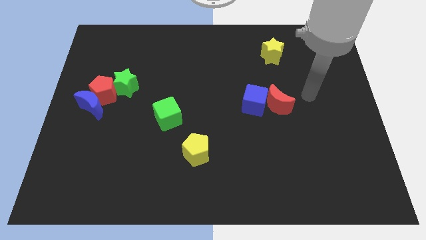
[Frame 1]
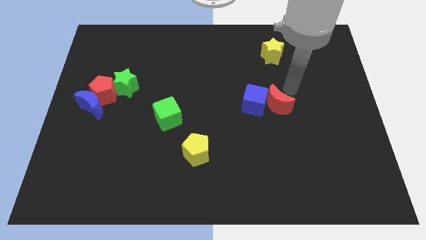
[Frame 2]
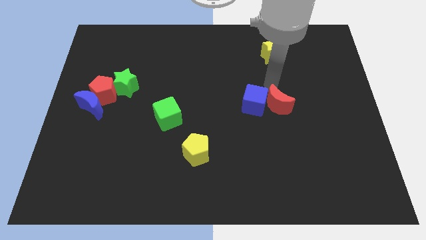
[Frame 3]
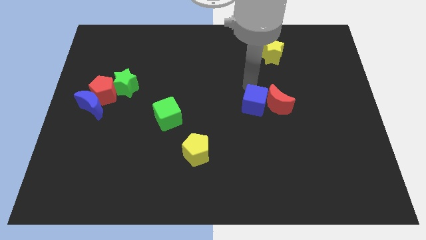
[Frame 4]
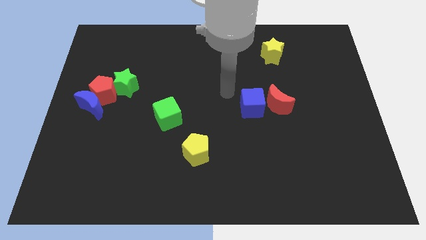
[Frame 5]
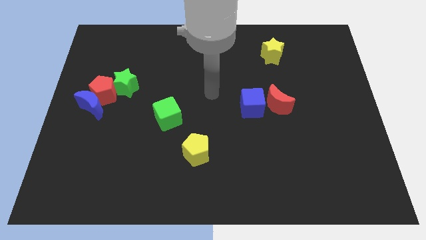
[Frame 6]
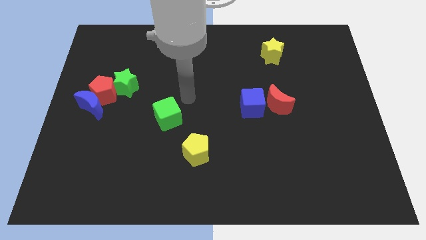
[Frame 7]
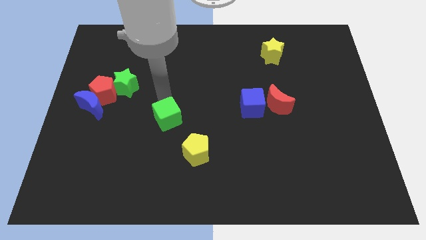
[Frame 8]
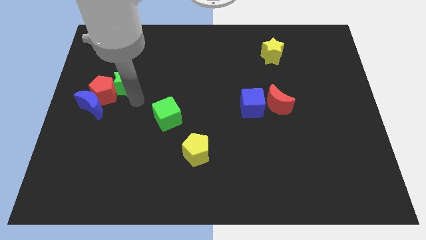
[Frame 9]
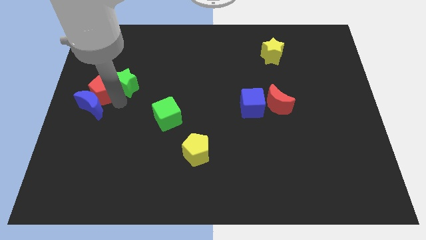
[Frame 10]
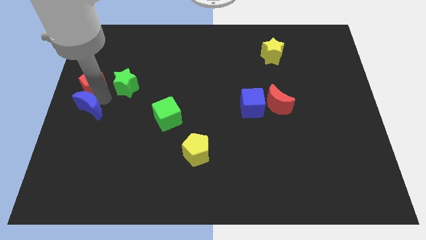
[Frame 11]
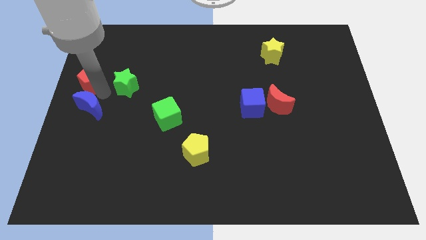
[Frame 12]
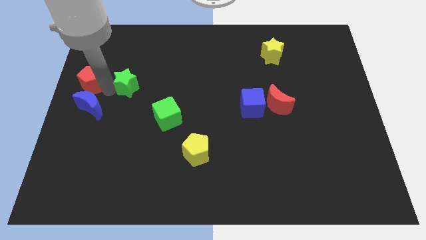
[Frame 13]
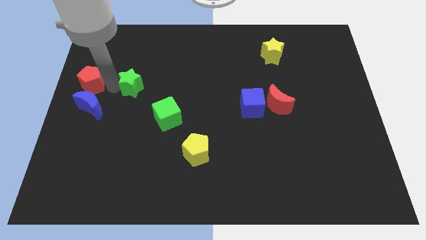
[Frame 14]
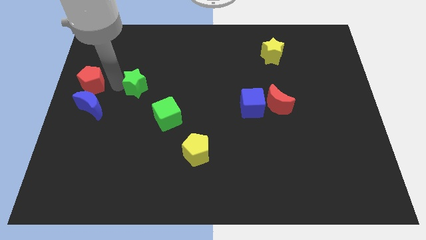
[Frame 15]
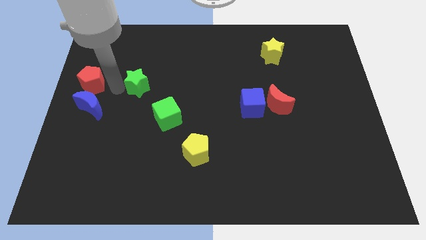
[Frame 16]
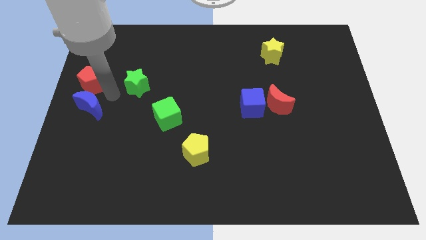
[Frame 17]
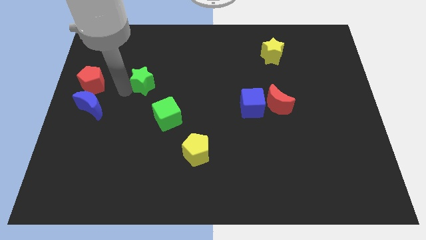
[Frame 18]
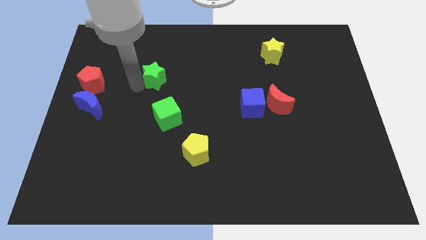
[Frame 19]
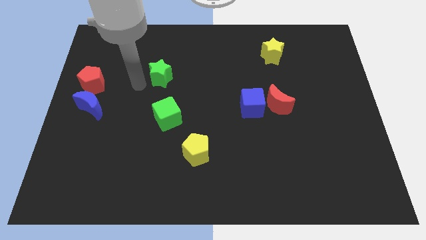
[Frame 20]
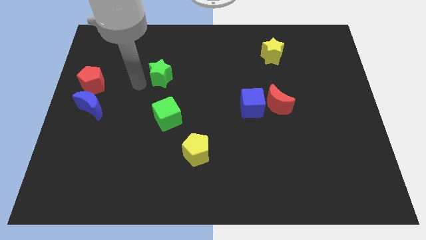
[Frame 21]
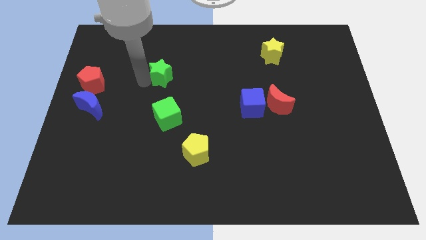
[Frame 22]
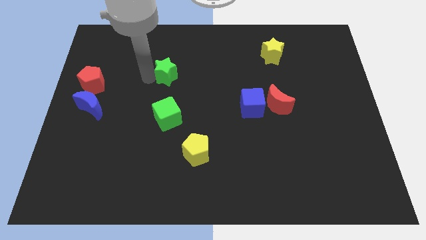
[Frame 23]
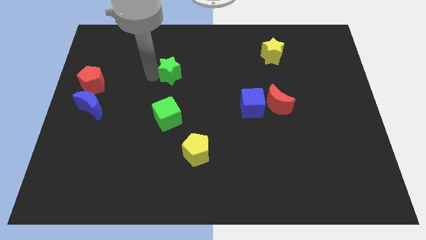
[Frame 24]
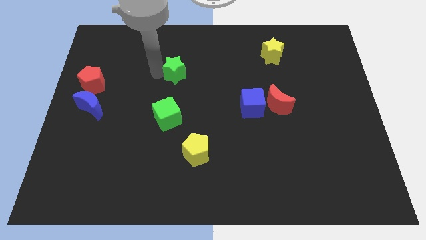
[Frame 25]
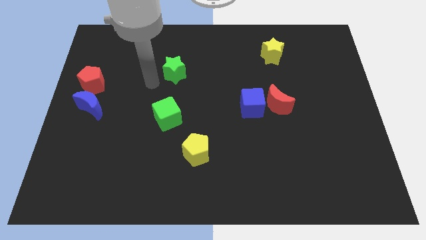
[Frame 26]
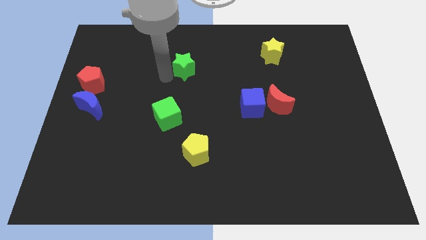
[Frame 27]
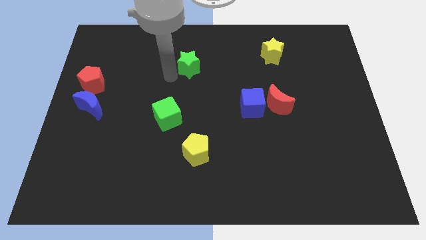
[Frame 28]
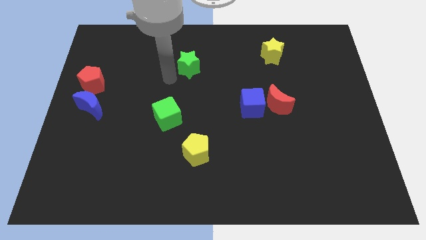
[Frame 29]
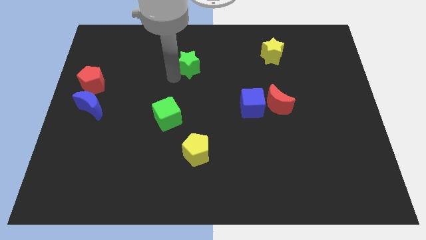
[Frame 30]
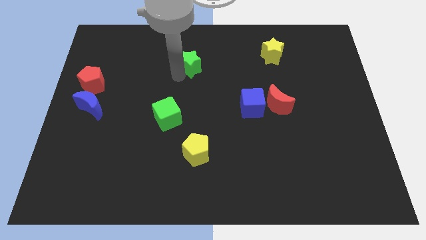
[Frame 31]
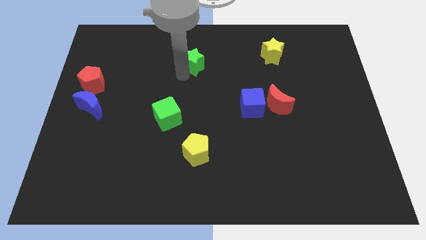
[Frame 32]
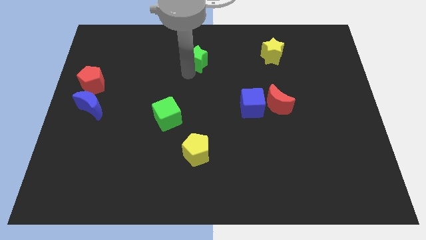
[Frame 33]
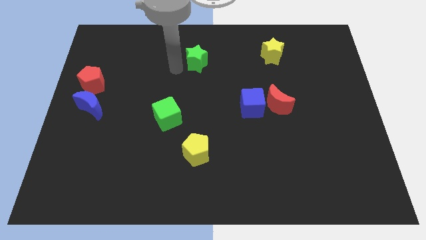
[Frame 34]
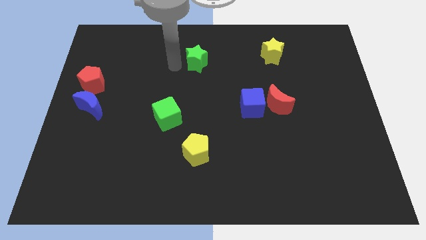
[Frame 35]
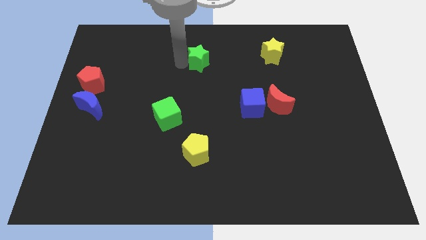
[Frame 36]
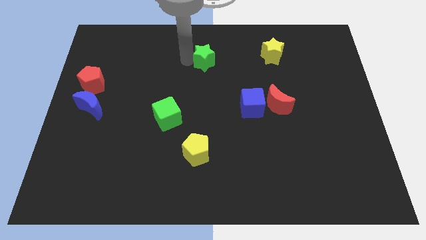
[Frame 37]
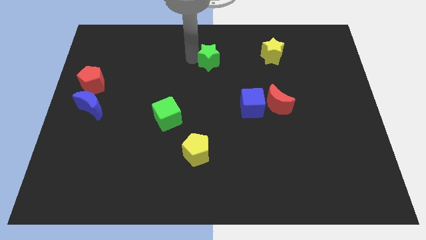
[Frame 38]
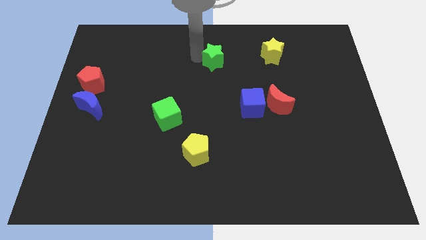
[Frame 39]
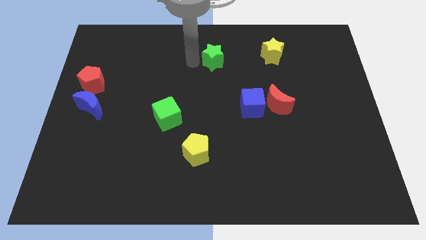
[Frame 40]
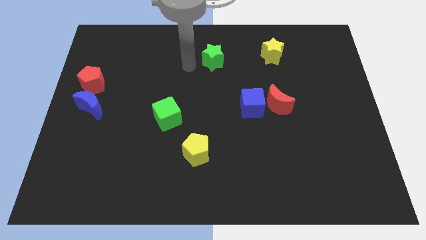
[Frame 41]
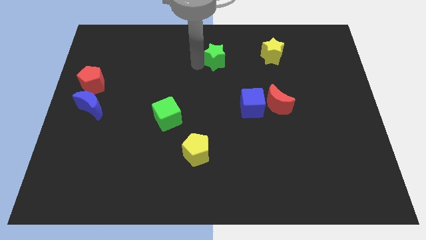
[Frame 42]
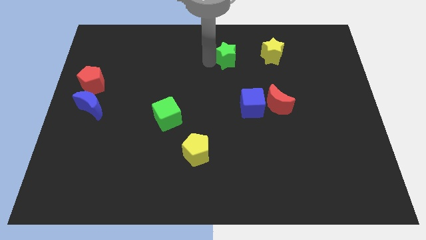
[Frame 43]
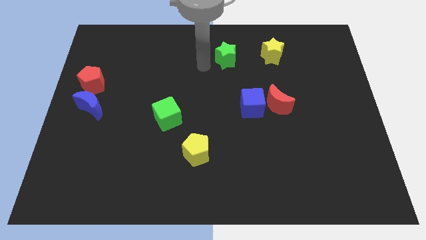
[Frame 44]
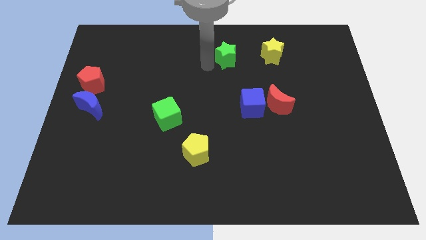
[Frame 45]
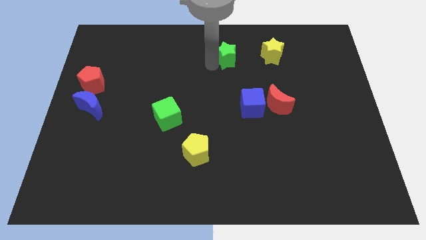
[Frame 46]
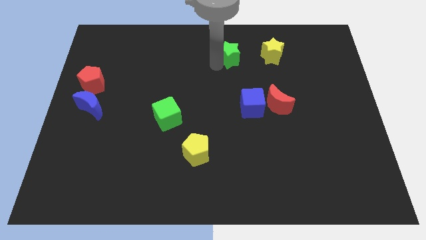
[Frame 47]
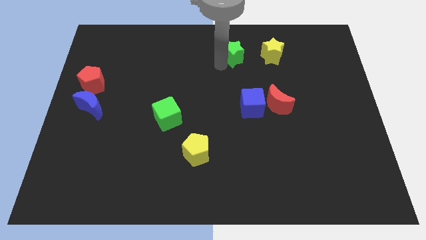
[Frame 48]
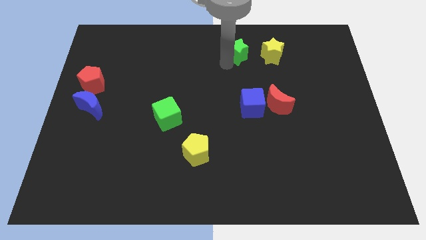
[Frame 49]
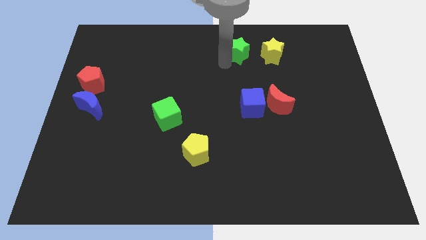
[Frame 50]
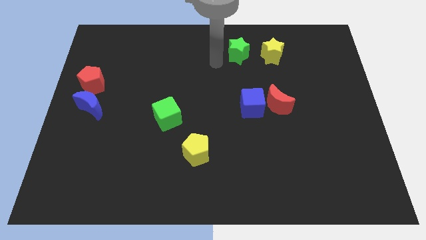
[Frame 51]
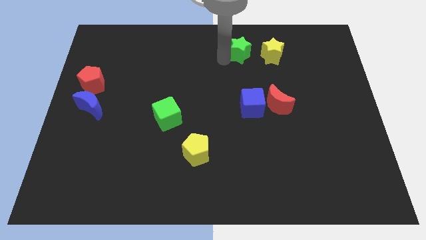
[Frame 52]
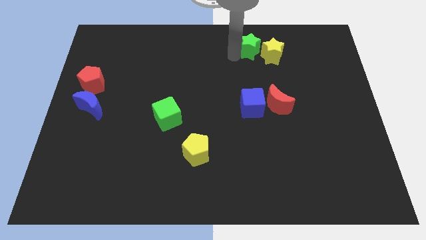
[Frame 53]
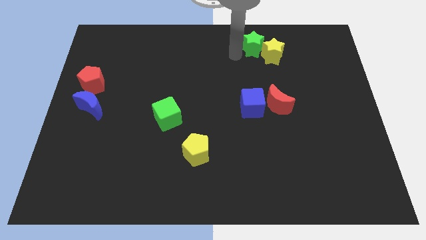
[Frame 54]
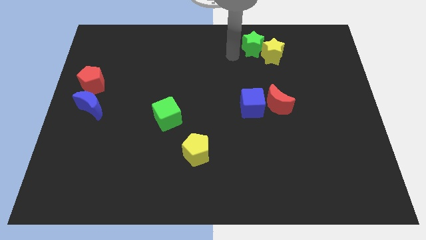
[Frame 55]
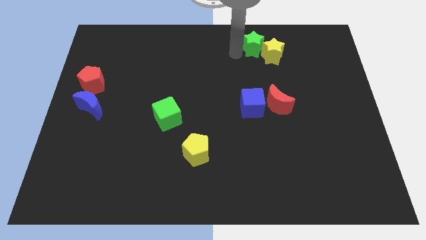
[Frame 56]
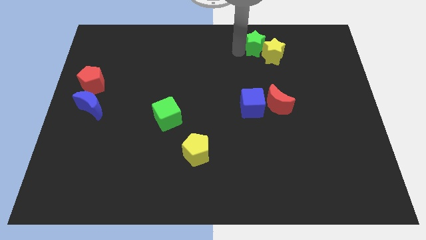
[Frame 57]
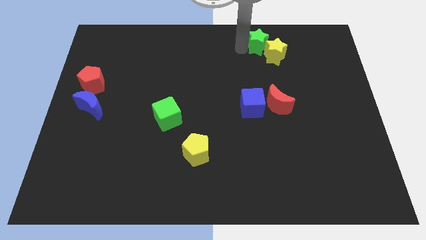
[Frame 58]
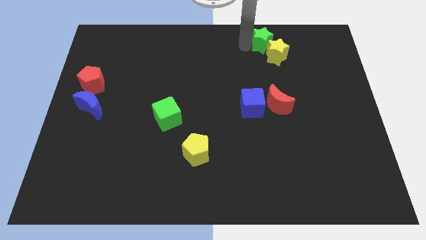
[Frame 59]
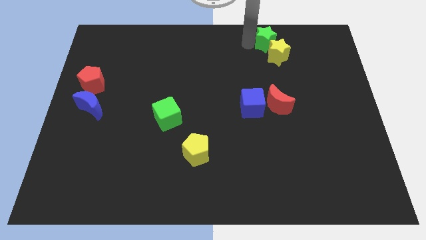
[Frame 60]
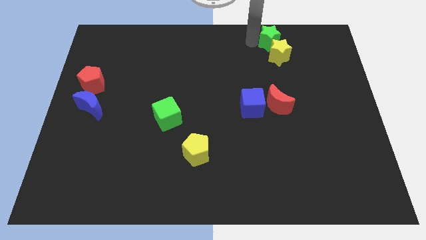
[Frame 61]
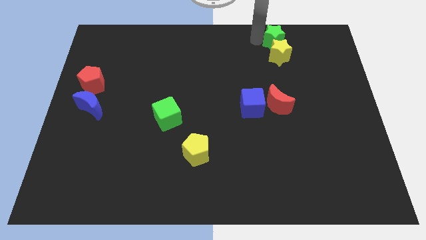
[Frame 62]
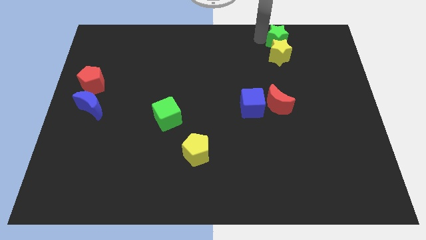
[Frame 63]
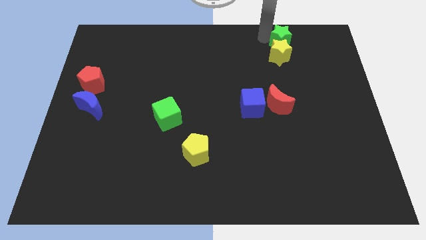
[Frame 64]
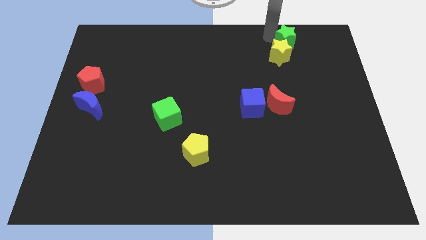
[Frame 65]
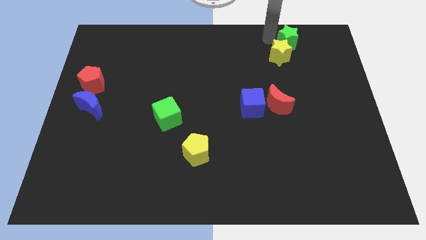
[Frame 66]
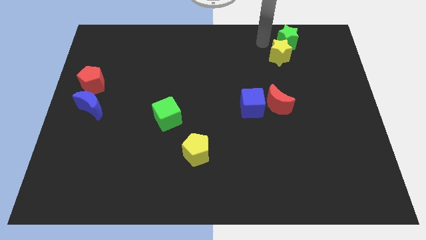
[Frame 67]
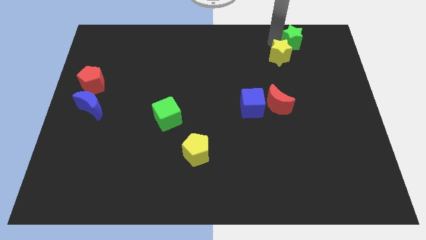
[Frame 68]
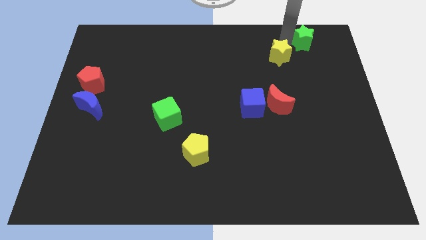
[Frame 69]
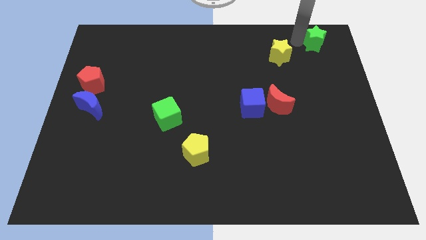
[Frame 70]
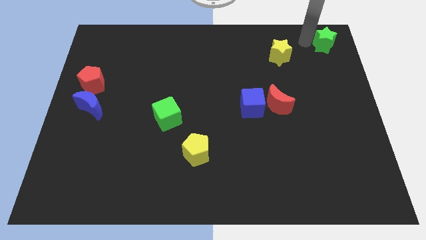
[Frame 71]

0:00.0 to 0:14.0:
push the green star to the top right of the board
